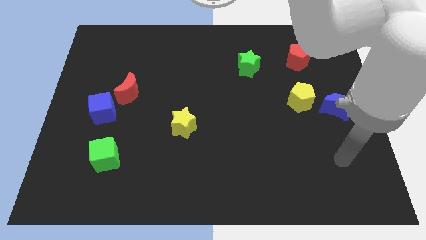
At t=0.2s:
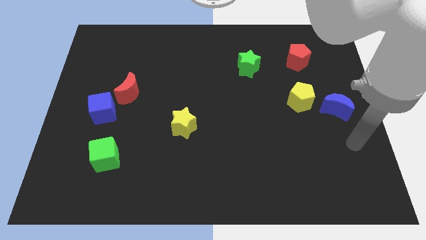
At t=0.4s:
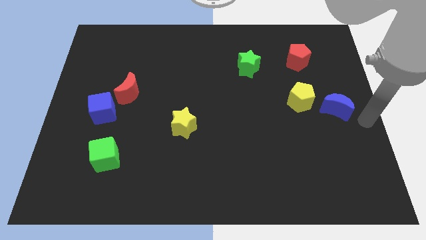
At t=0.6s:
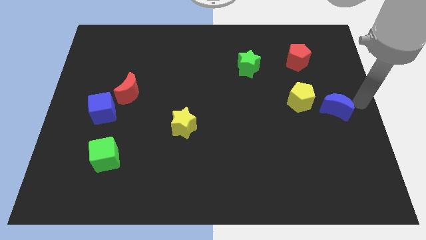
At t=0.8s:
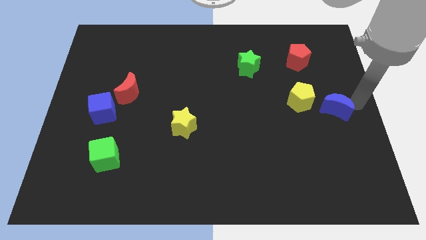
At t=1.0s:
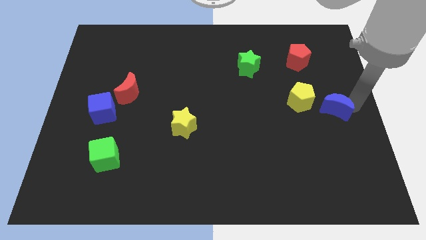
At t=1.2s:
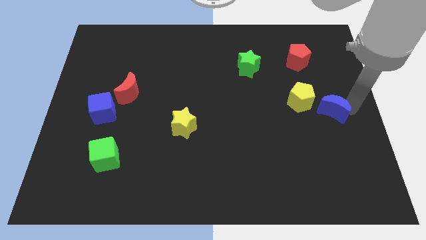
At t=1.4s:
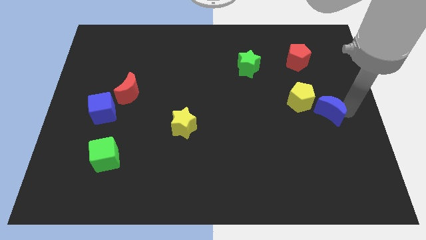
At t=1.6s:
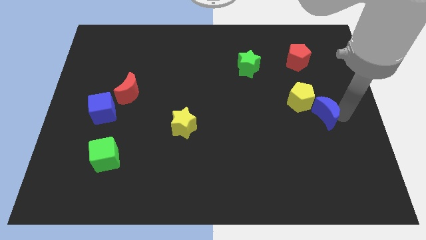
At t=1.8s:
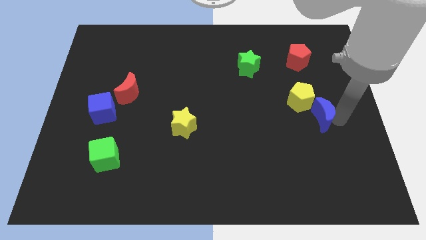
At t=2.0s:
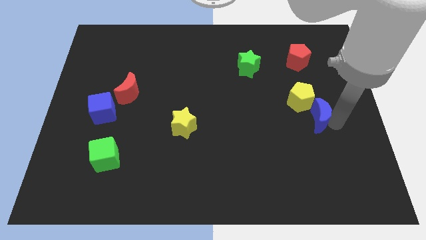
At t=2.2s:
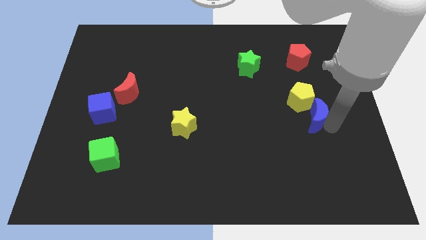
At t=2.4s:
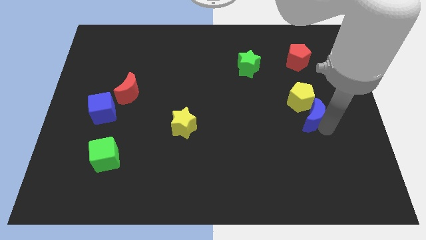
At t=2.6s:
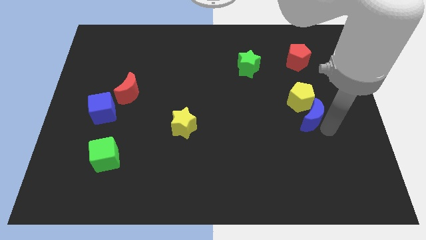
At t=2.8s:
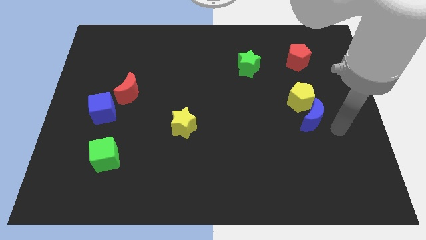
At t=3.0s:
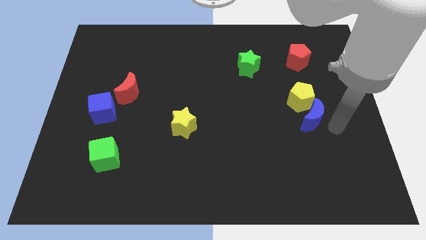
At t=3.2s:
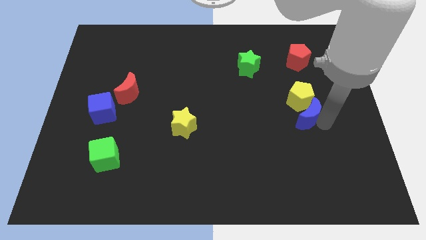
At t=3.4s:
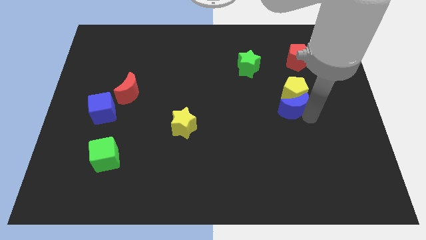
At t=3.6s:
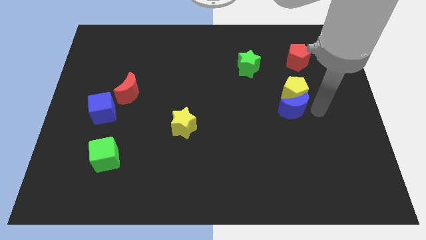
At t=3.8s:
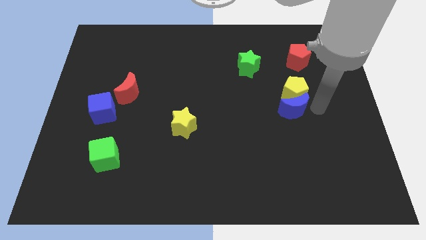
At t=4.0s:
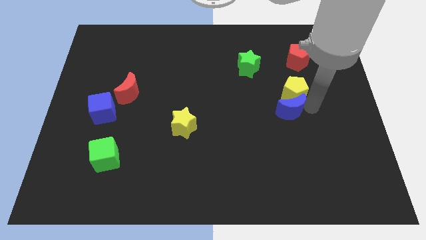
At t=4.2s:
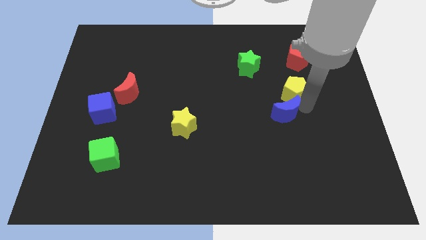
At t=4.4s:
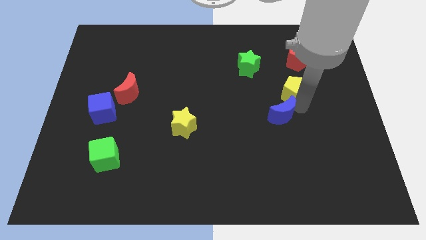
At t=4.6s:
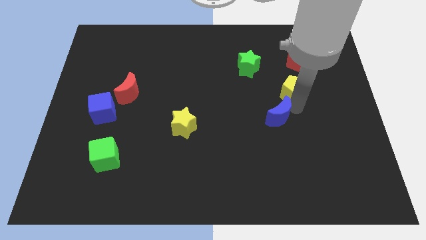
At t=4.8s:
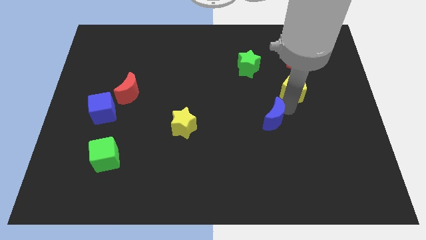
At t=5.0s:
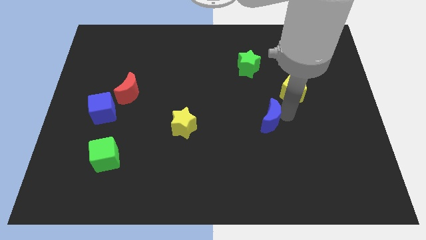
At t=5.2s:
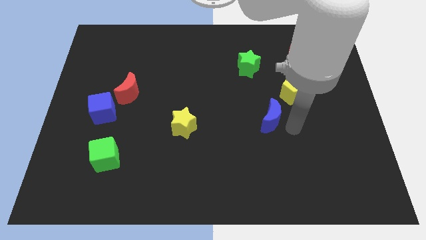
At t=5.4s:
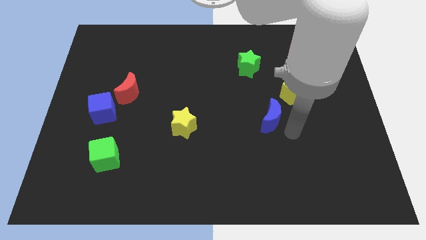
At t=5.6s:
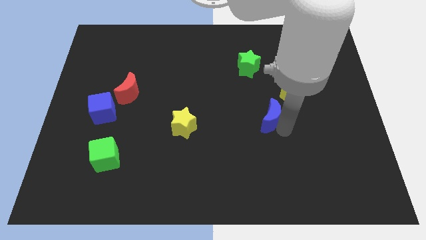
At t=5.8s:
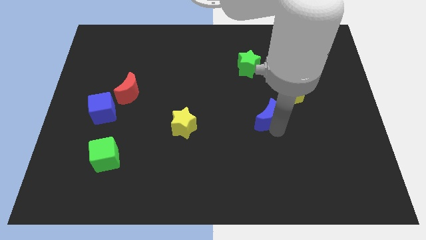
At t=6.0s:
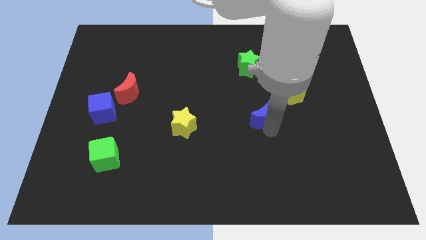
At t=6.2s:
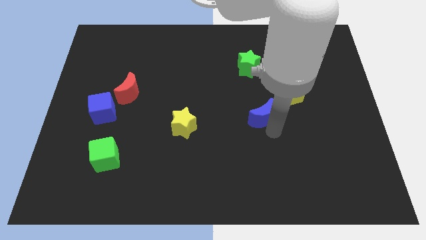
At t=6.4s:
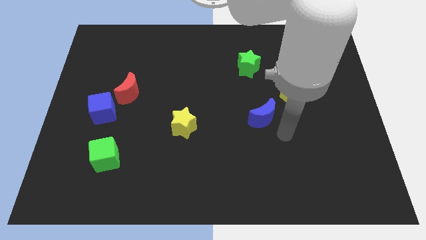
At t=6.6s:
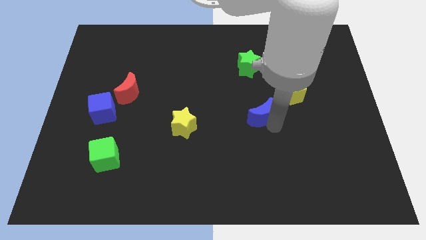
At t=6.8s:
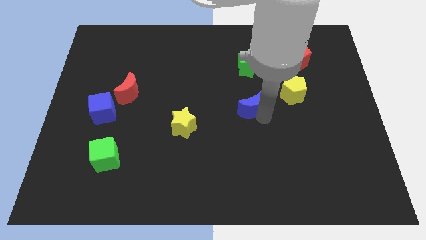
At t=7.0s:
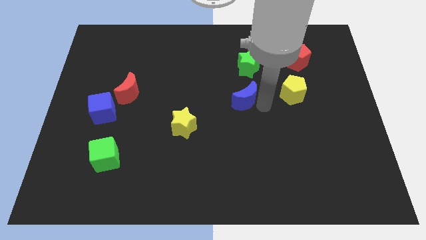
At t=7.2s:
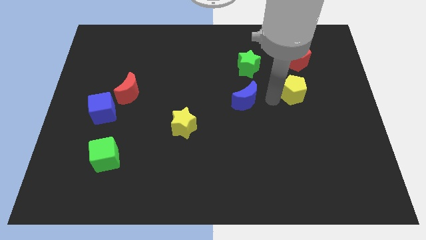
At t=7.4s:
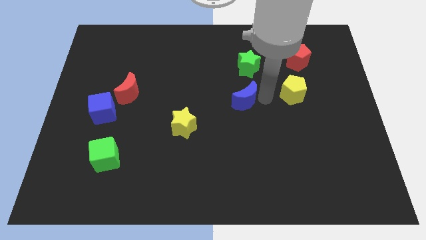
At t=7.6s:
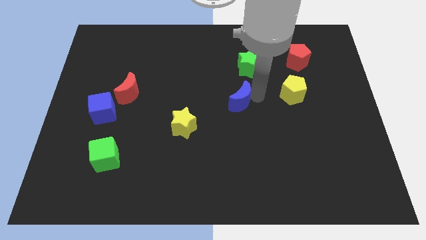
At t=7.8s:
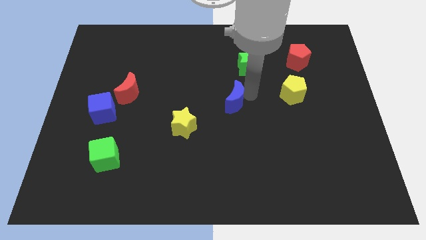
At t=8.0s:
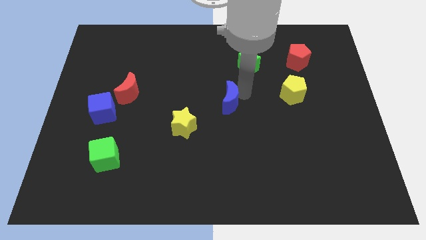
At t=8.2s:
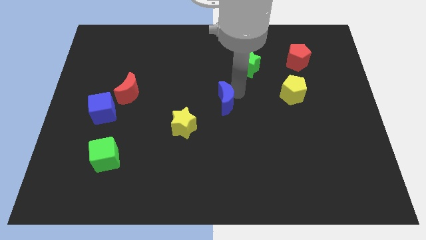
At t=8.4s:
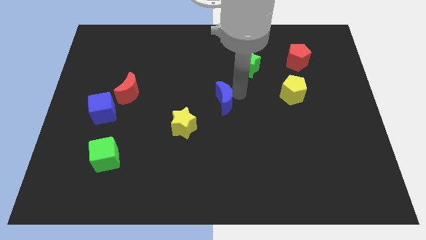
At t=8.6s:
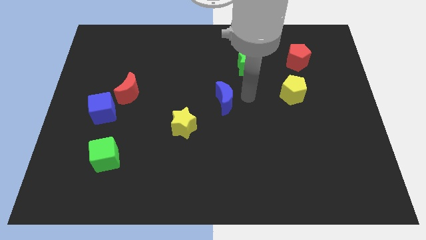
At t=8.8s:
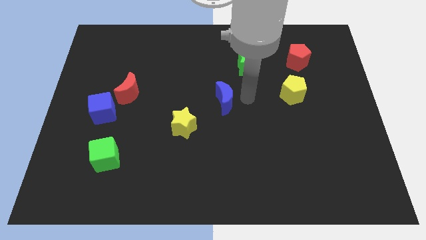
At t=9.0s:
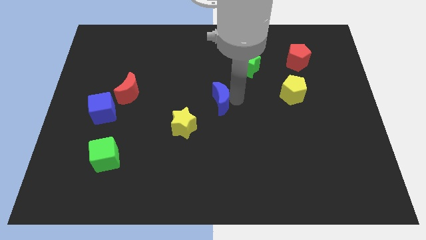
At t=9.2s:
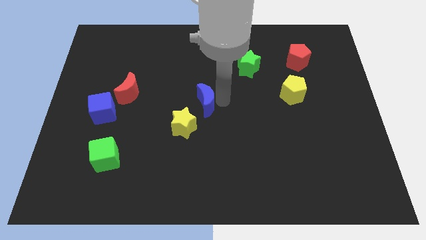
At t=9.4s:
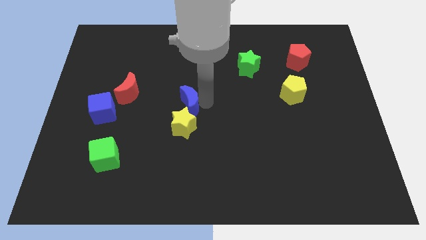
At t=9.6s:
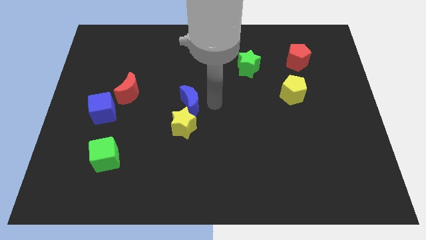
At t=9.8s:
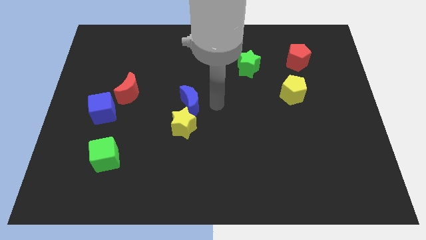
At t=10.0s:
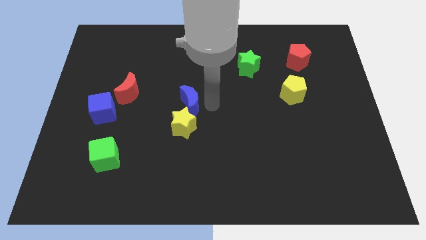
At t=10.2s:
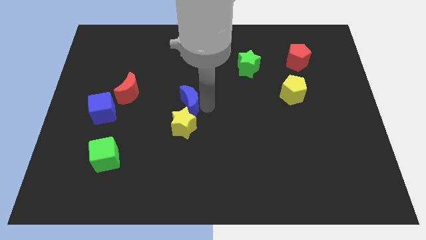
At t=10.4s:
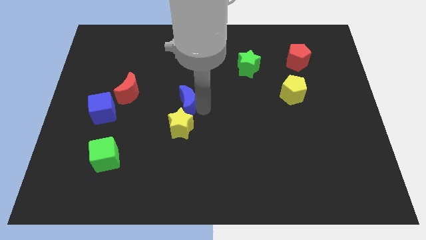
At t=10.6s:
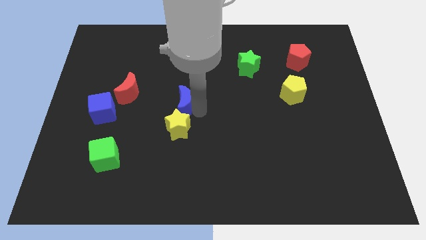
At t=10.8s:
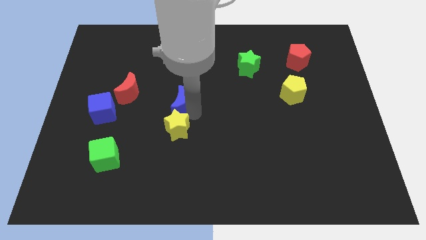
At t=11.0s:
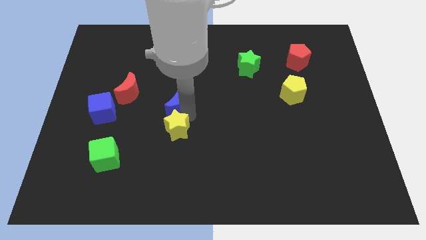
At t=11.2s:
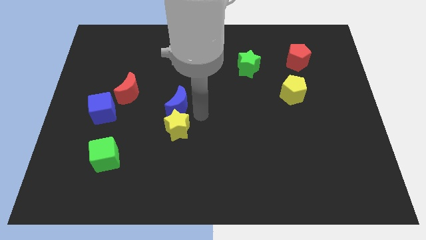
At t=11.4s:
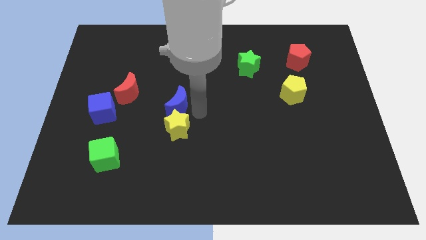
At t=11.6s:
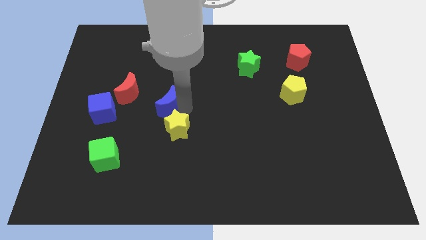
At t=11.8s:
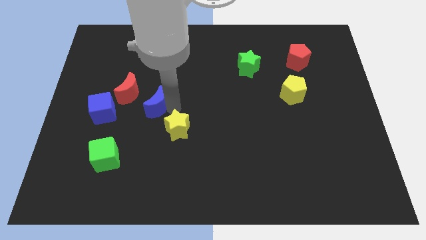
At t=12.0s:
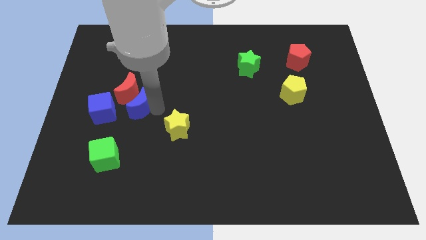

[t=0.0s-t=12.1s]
push the blue moon next to the red moon

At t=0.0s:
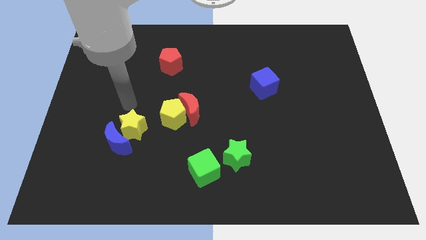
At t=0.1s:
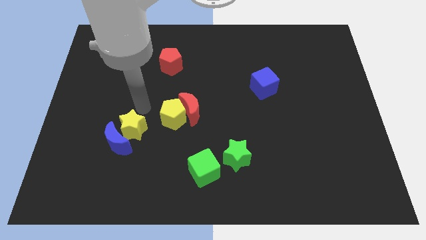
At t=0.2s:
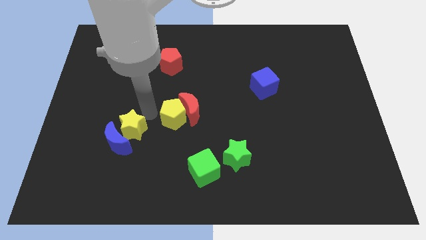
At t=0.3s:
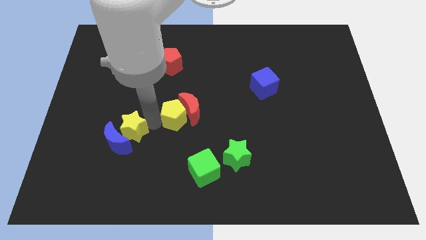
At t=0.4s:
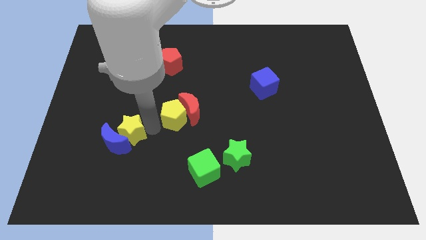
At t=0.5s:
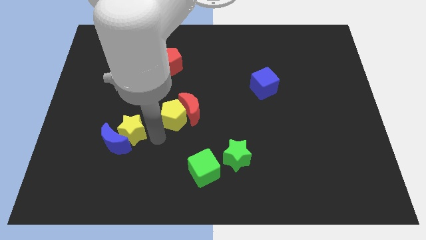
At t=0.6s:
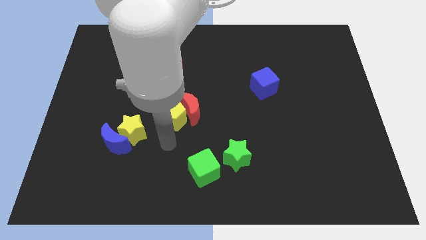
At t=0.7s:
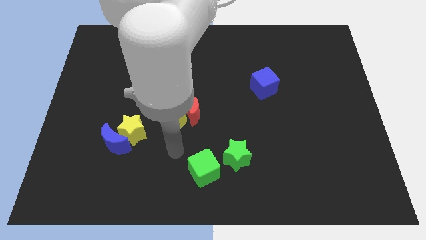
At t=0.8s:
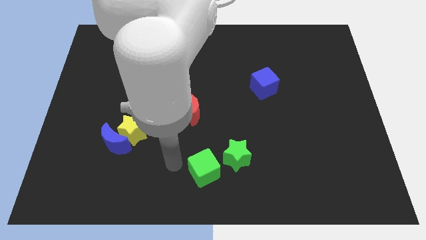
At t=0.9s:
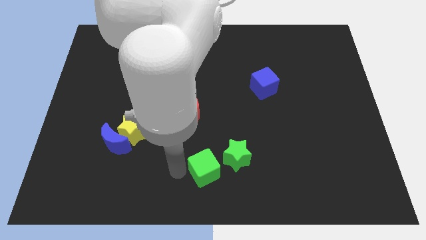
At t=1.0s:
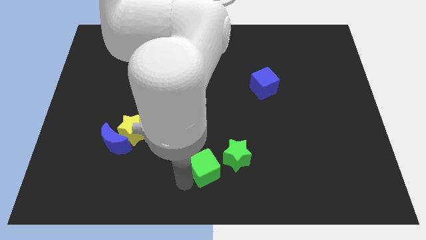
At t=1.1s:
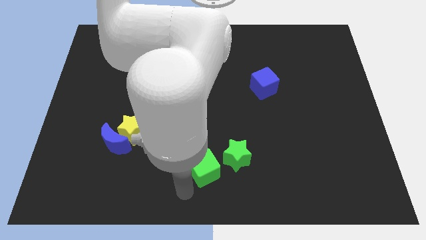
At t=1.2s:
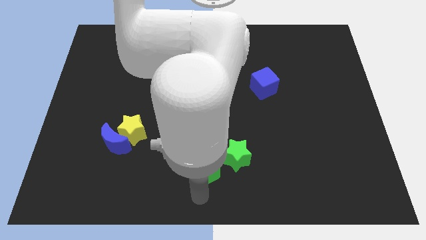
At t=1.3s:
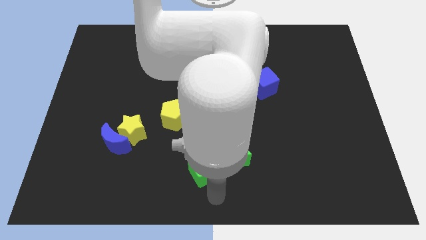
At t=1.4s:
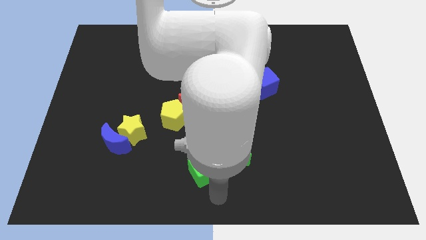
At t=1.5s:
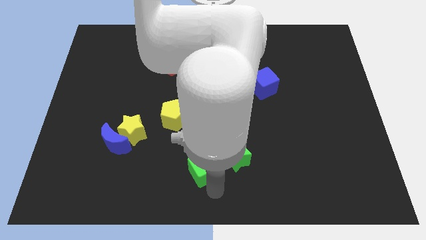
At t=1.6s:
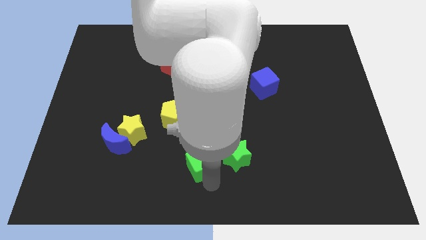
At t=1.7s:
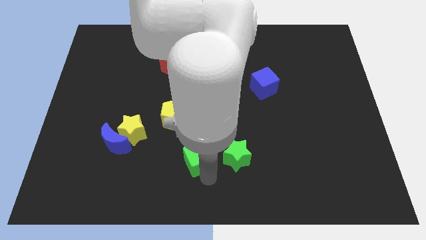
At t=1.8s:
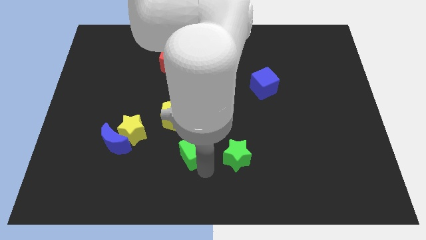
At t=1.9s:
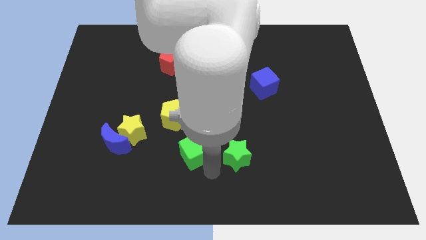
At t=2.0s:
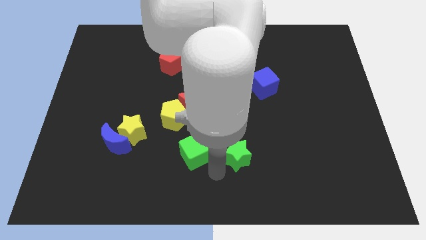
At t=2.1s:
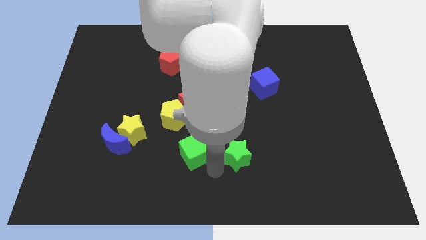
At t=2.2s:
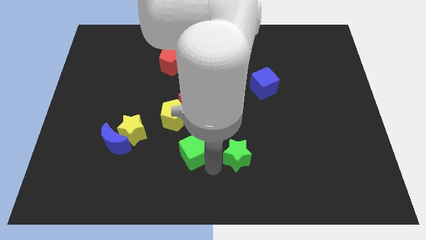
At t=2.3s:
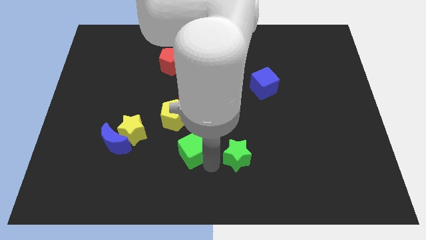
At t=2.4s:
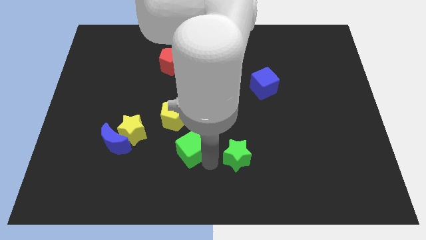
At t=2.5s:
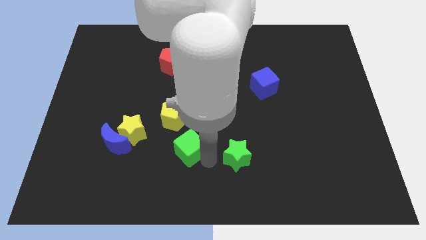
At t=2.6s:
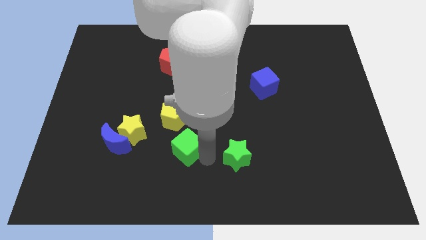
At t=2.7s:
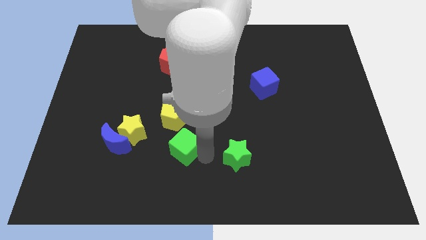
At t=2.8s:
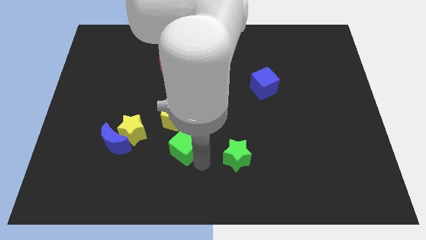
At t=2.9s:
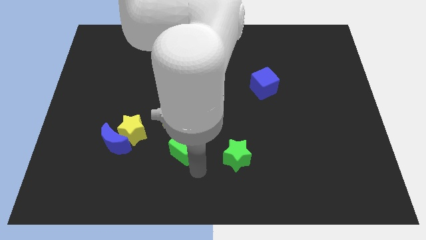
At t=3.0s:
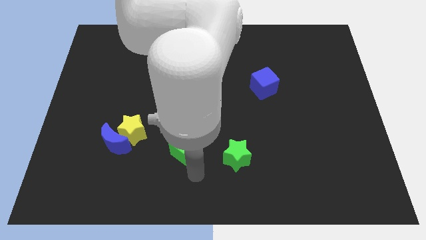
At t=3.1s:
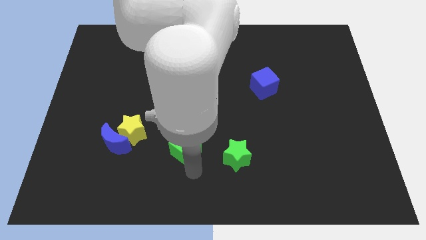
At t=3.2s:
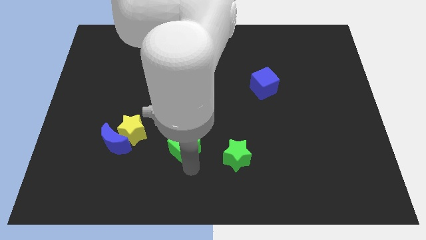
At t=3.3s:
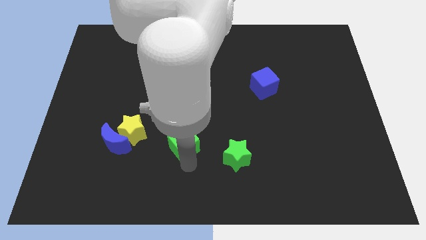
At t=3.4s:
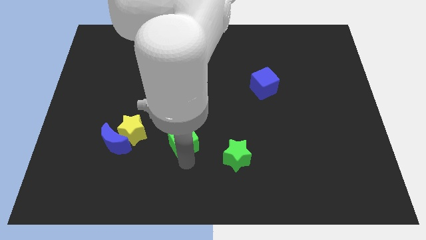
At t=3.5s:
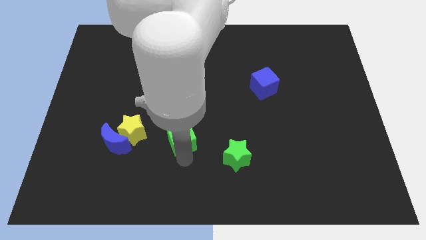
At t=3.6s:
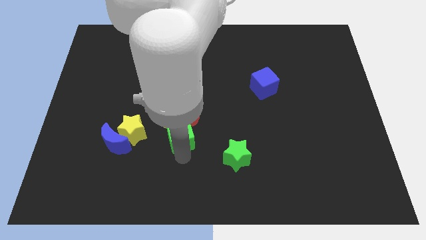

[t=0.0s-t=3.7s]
slide the green cube next to the yellow pentagon
